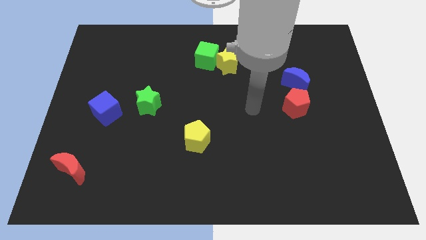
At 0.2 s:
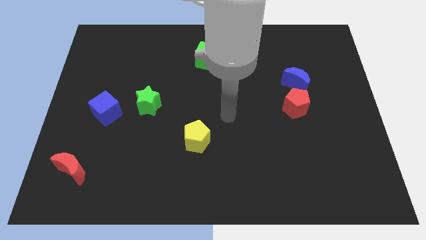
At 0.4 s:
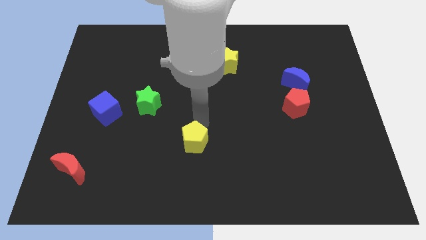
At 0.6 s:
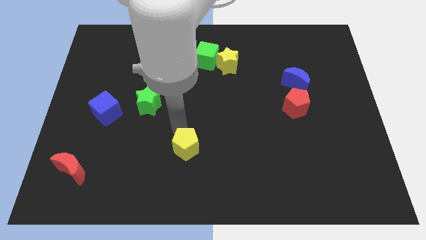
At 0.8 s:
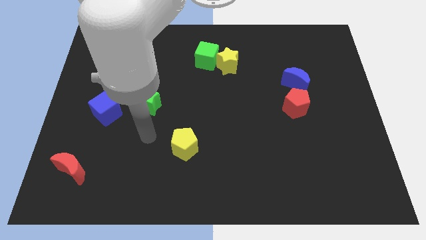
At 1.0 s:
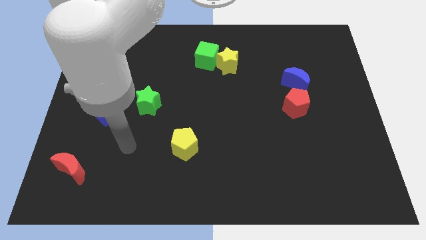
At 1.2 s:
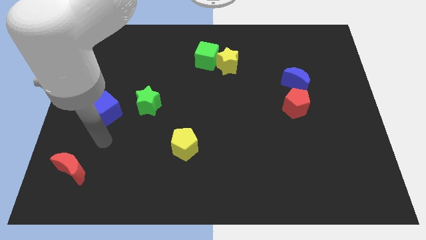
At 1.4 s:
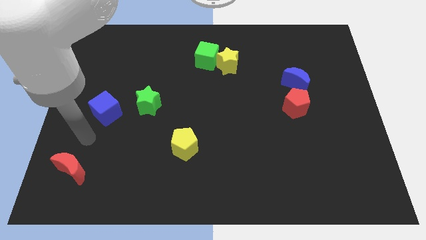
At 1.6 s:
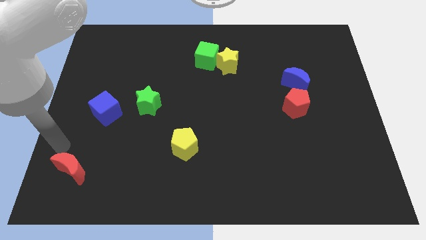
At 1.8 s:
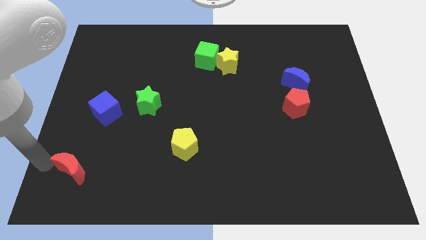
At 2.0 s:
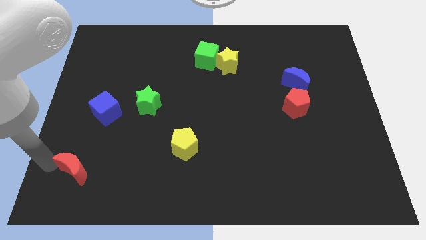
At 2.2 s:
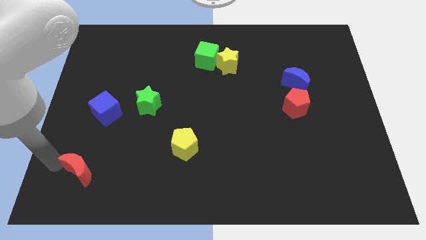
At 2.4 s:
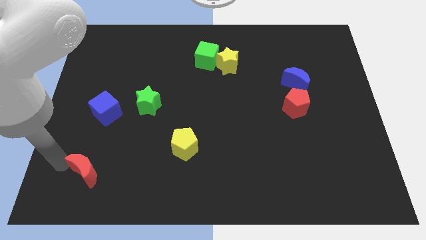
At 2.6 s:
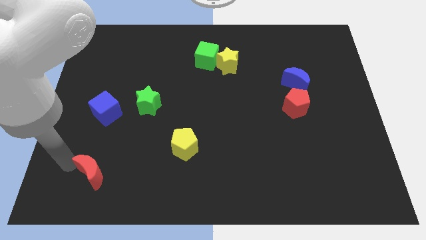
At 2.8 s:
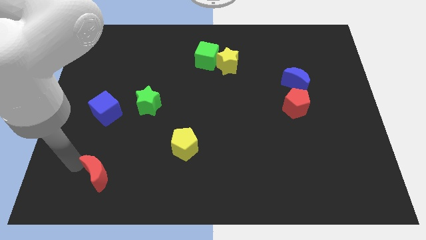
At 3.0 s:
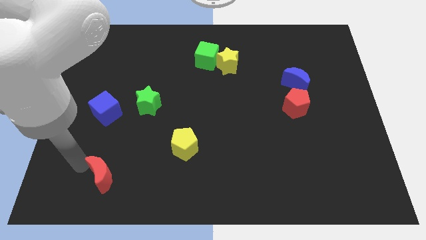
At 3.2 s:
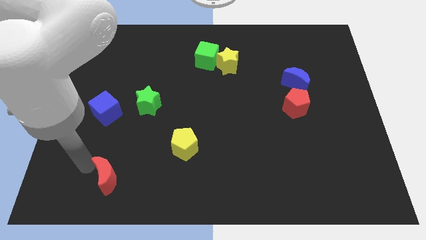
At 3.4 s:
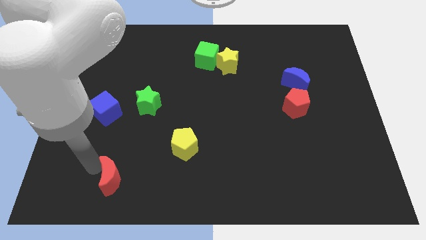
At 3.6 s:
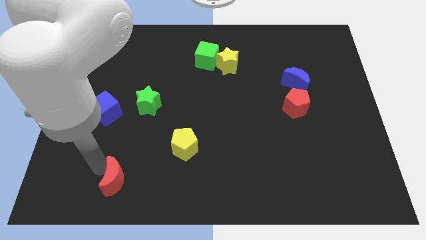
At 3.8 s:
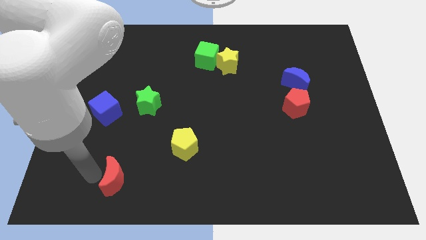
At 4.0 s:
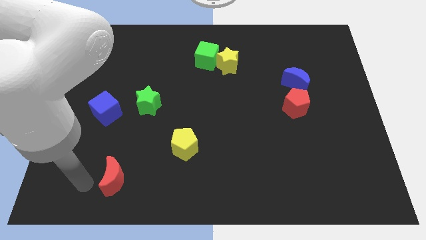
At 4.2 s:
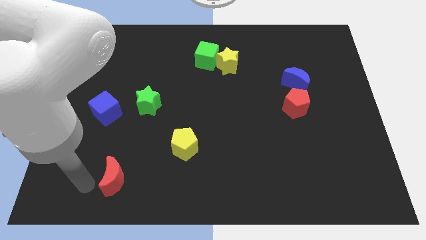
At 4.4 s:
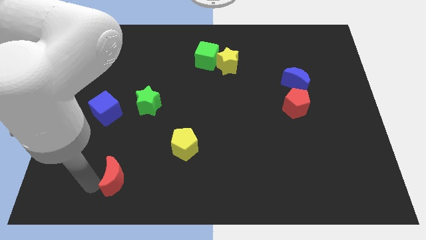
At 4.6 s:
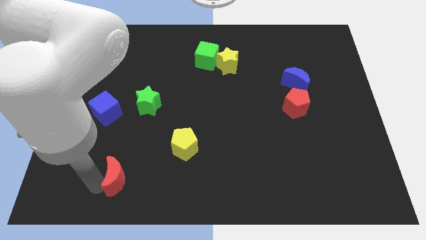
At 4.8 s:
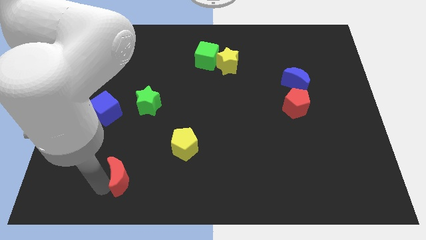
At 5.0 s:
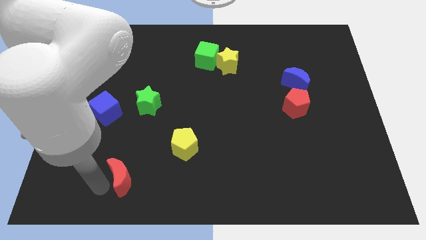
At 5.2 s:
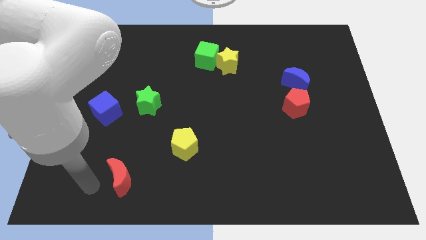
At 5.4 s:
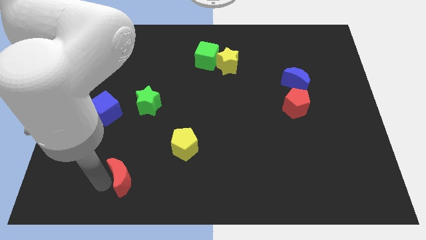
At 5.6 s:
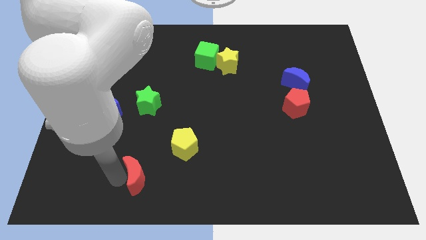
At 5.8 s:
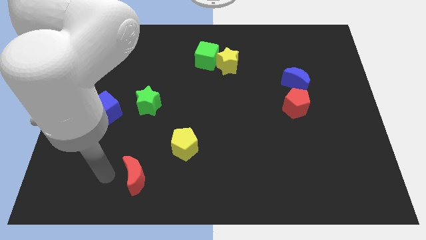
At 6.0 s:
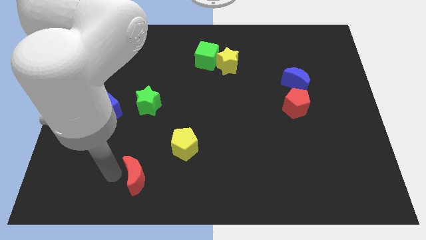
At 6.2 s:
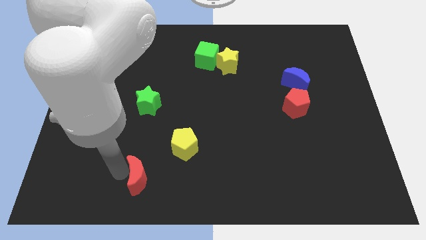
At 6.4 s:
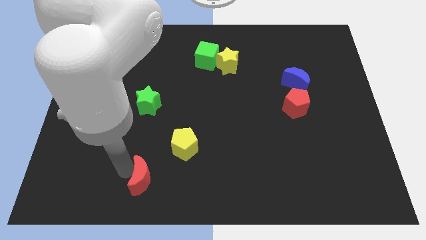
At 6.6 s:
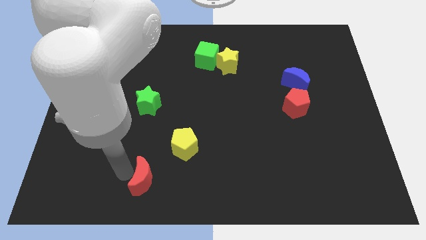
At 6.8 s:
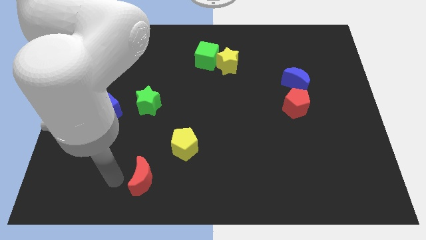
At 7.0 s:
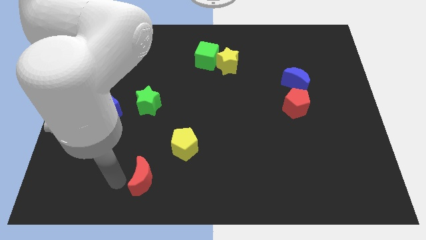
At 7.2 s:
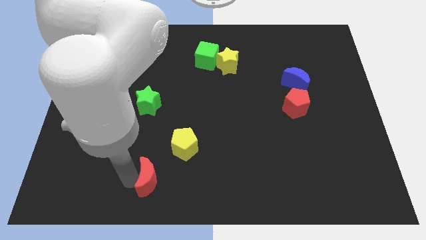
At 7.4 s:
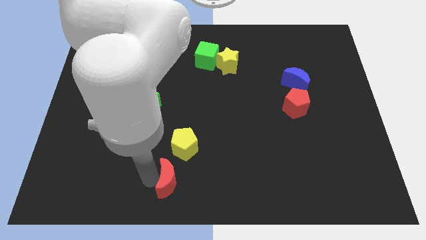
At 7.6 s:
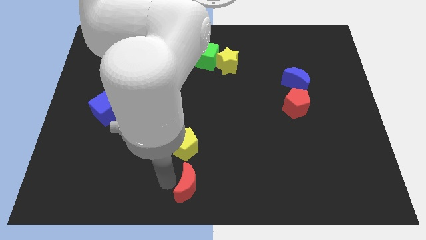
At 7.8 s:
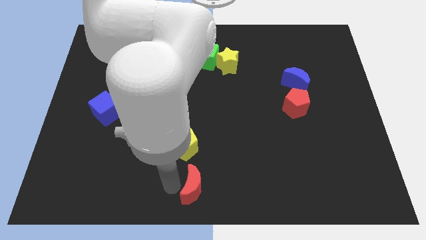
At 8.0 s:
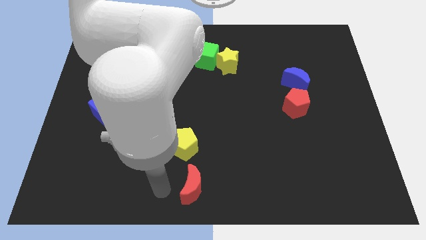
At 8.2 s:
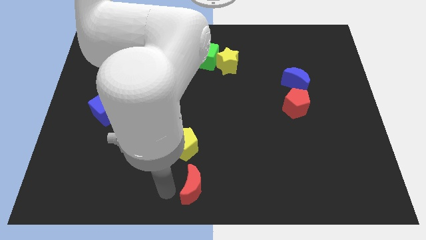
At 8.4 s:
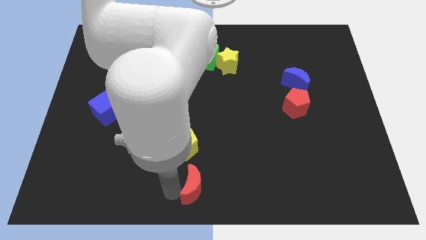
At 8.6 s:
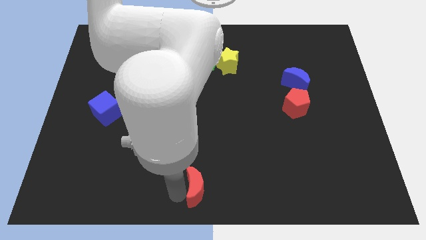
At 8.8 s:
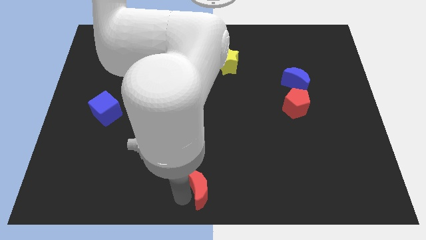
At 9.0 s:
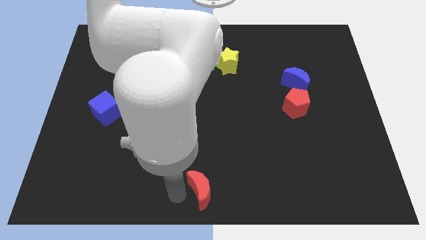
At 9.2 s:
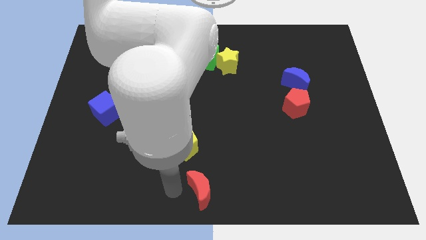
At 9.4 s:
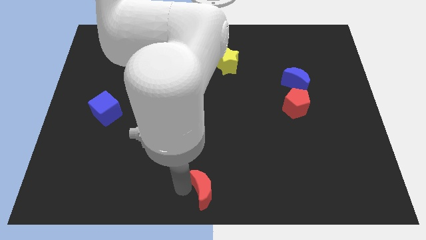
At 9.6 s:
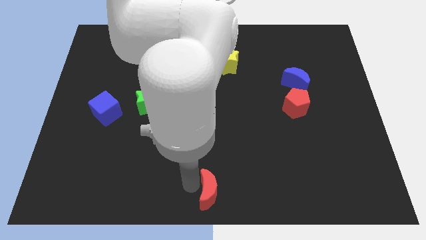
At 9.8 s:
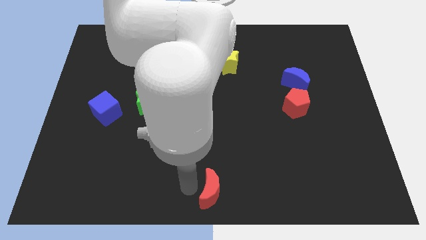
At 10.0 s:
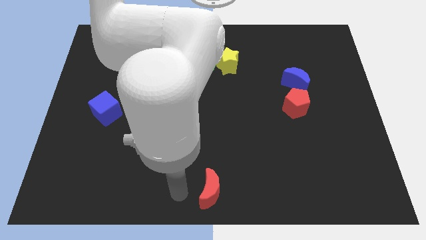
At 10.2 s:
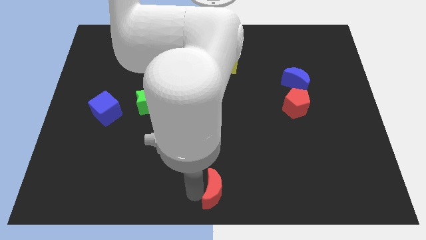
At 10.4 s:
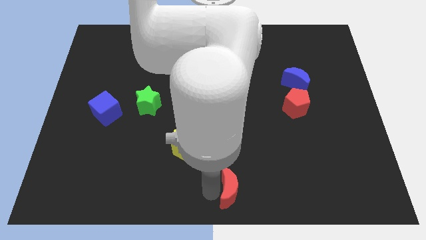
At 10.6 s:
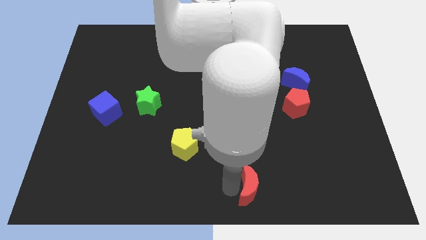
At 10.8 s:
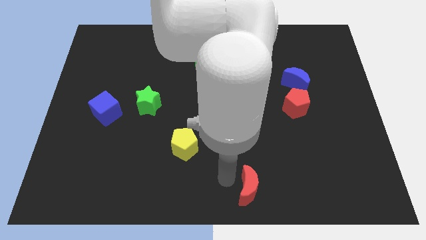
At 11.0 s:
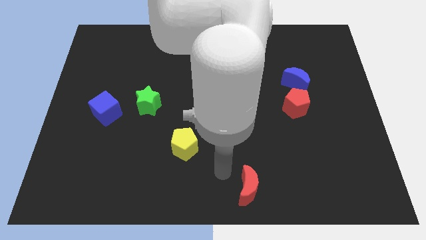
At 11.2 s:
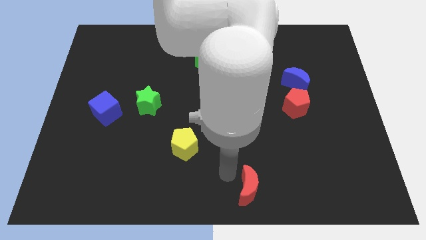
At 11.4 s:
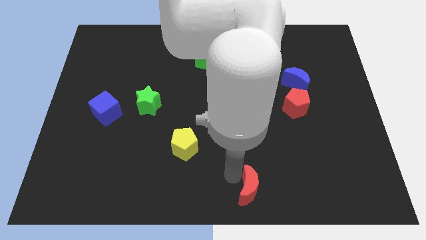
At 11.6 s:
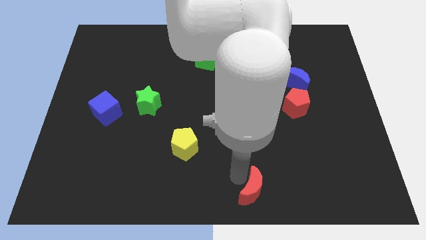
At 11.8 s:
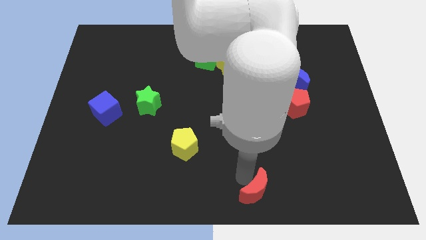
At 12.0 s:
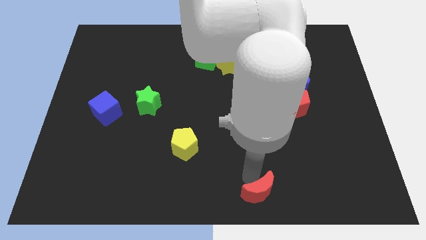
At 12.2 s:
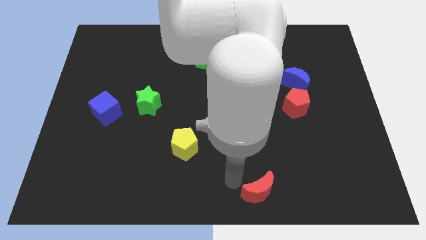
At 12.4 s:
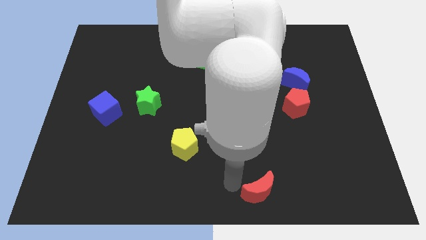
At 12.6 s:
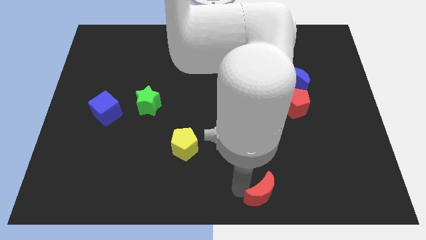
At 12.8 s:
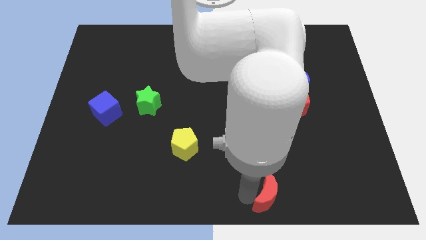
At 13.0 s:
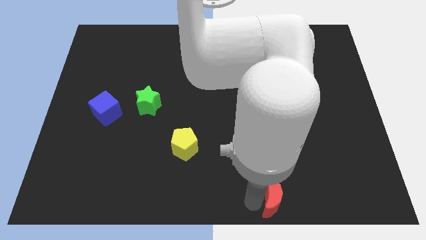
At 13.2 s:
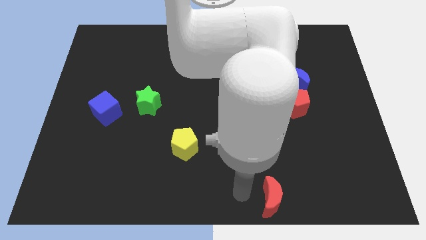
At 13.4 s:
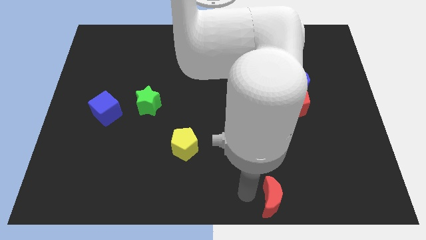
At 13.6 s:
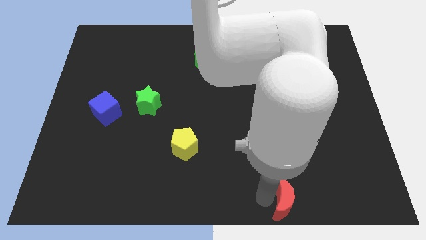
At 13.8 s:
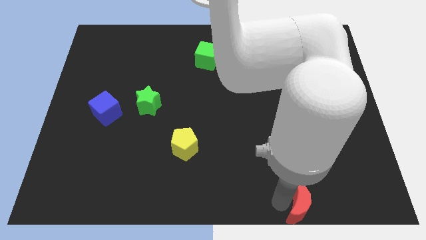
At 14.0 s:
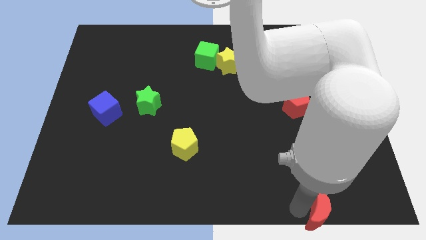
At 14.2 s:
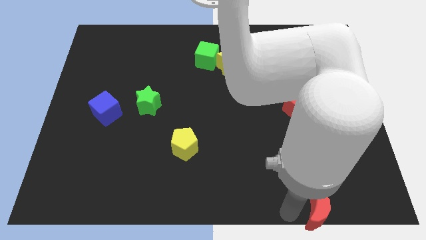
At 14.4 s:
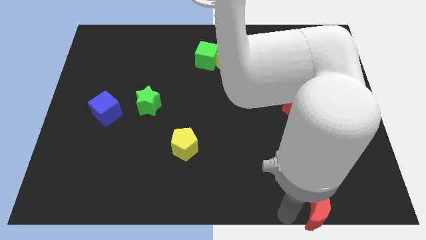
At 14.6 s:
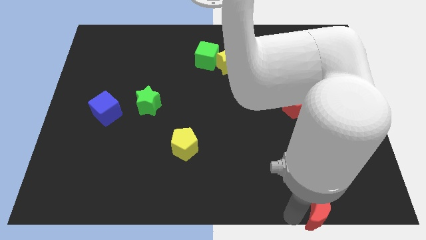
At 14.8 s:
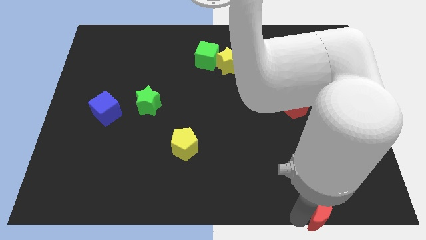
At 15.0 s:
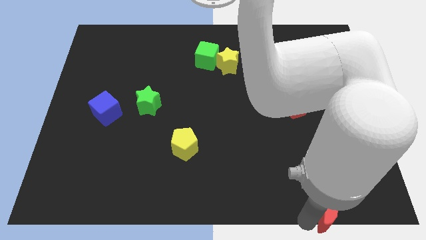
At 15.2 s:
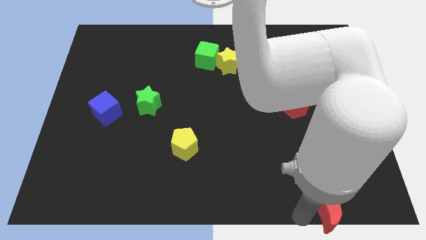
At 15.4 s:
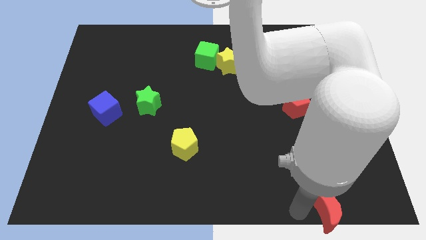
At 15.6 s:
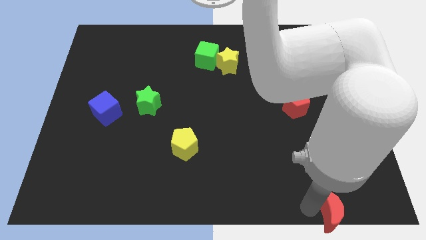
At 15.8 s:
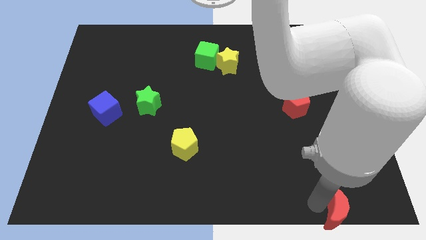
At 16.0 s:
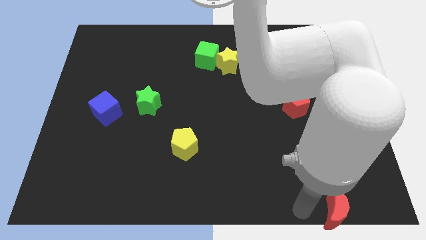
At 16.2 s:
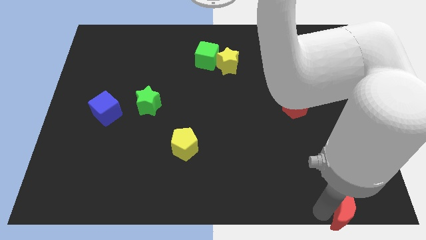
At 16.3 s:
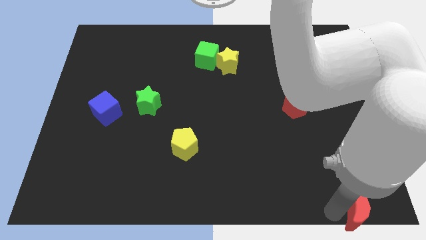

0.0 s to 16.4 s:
slide the red moon to the bottom right corner
